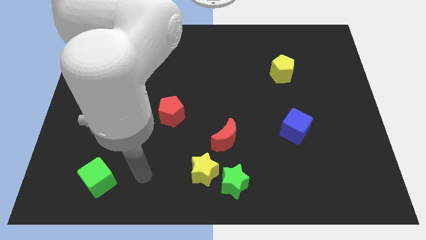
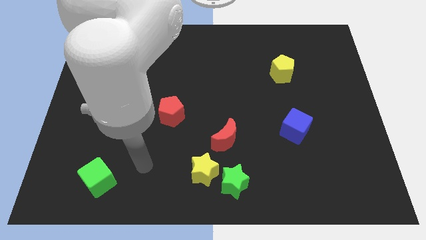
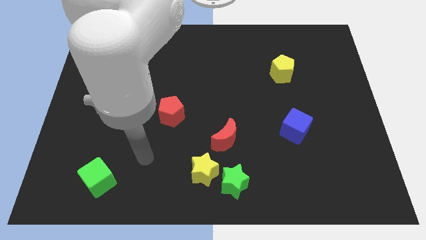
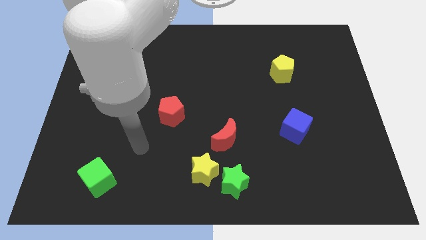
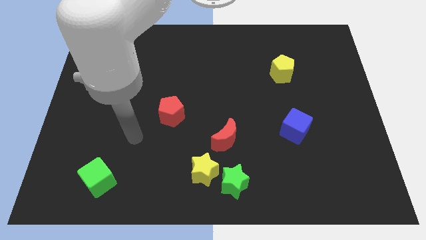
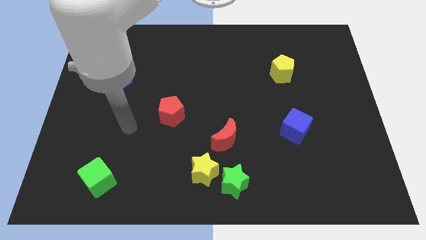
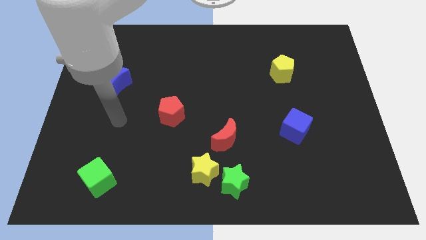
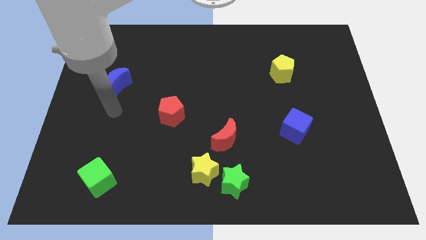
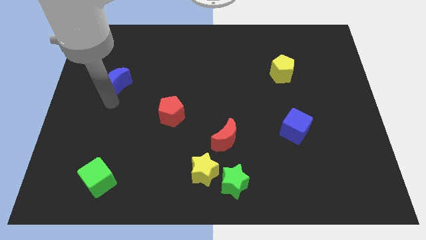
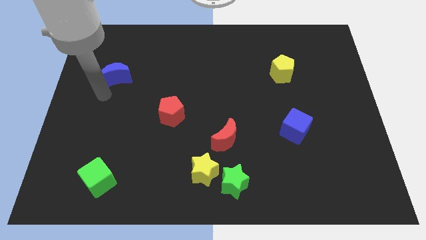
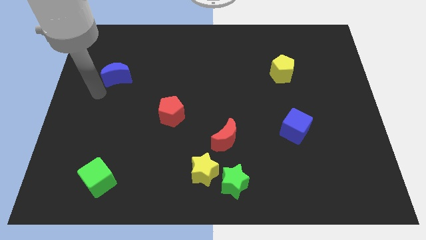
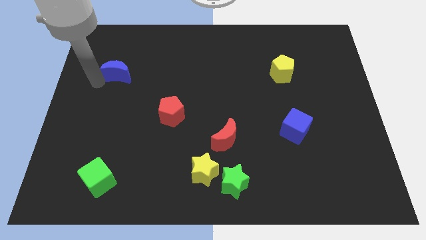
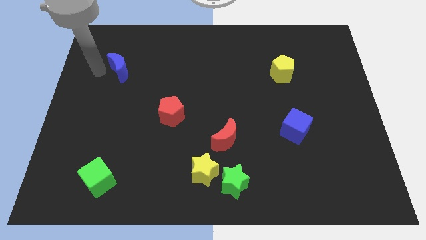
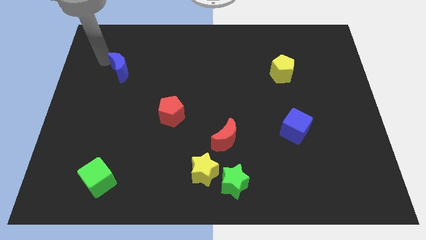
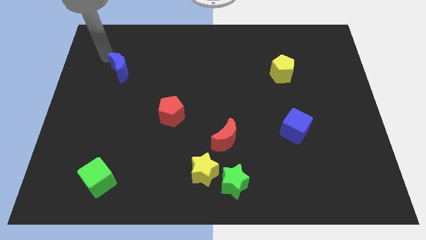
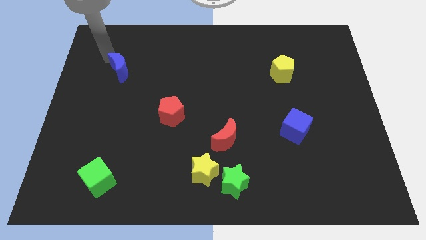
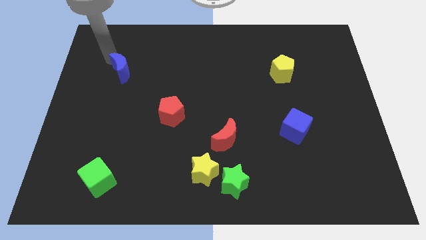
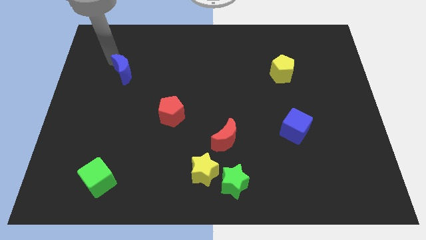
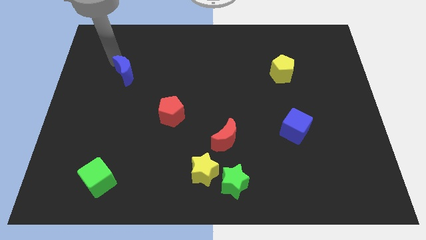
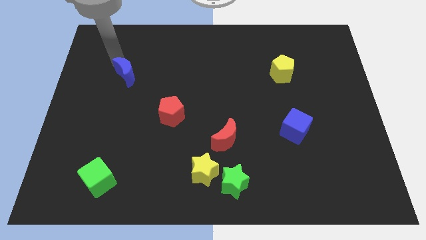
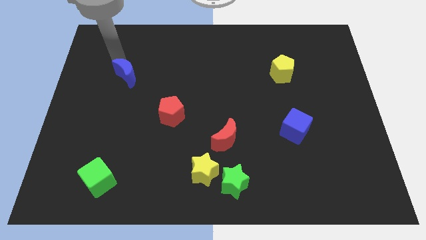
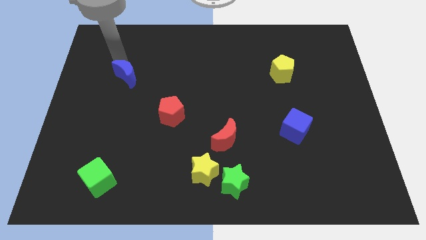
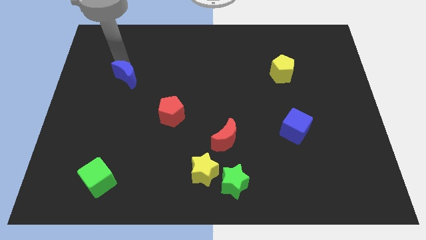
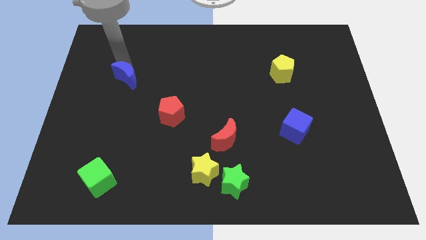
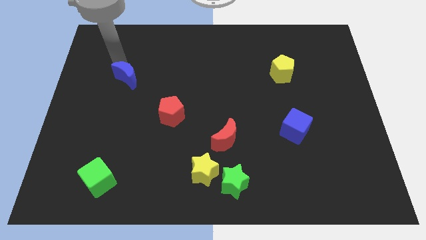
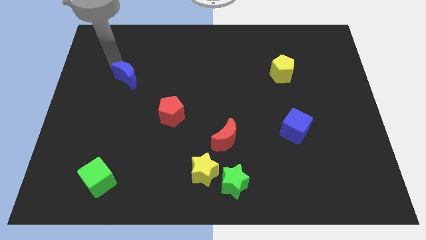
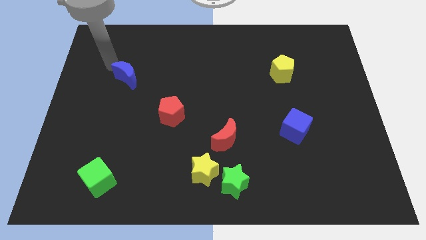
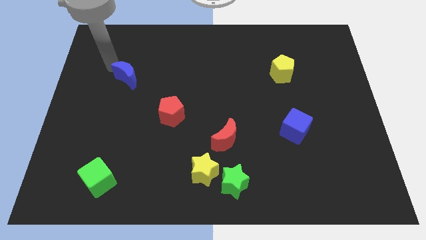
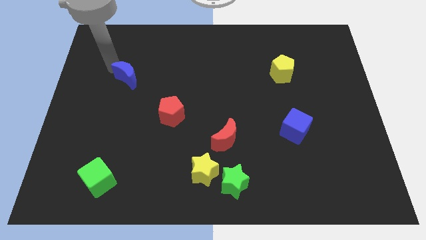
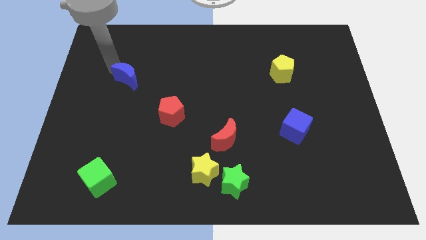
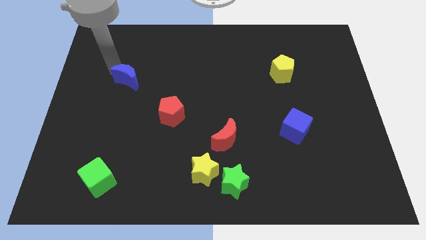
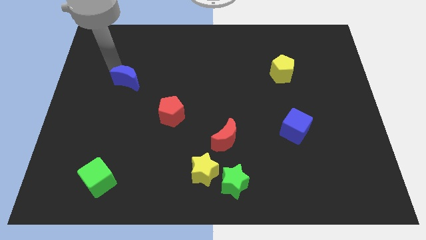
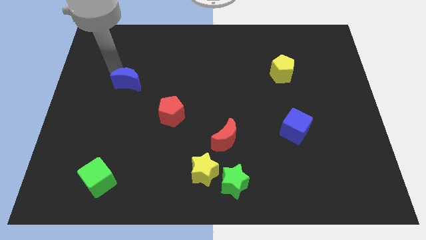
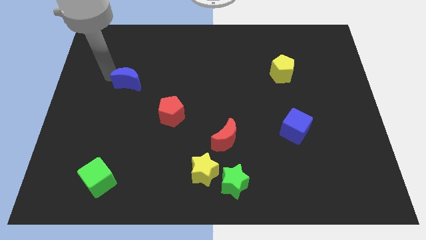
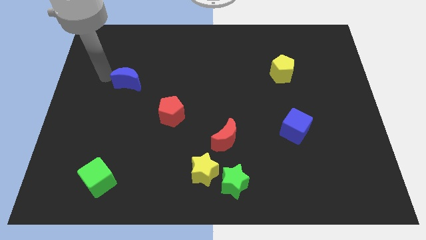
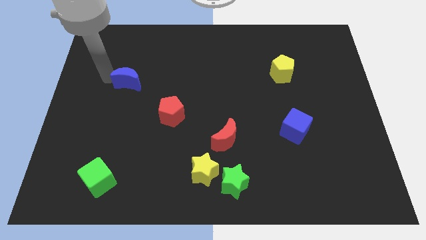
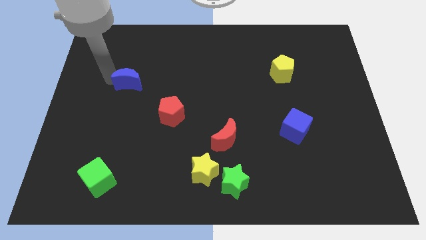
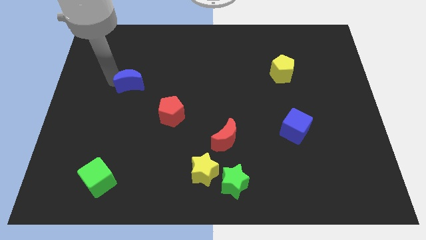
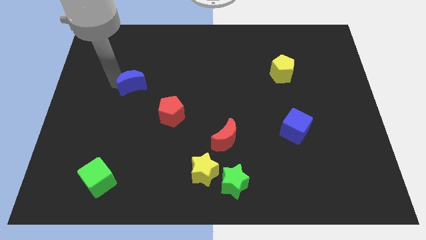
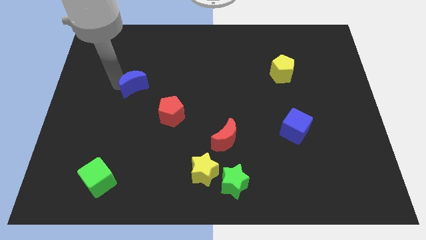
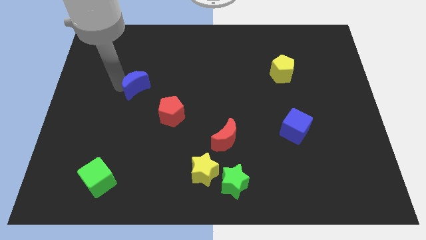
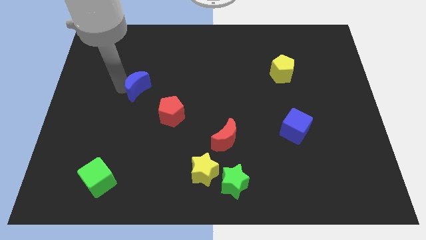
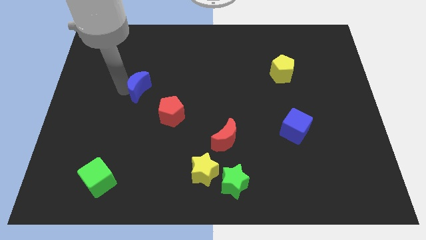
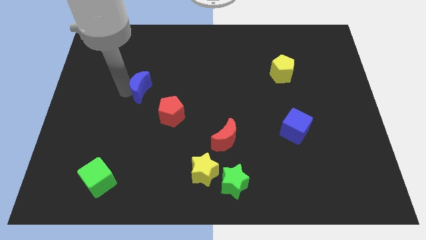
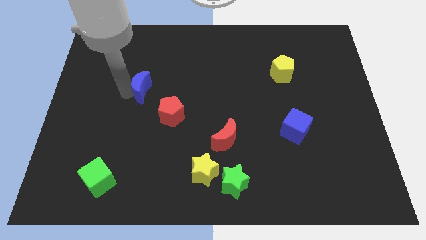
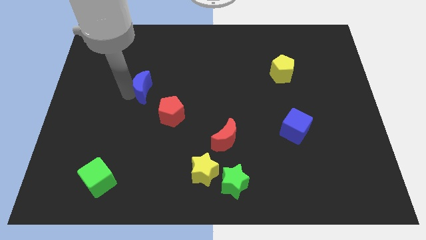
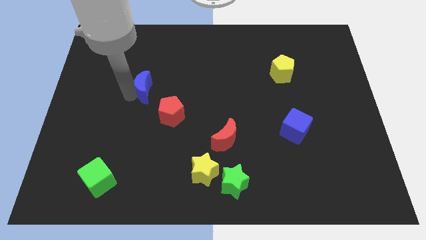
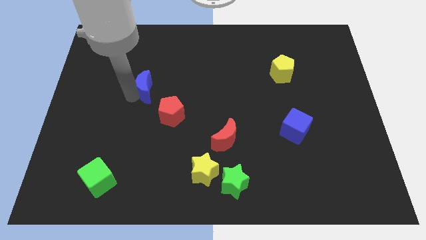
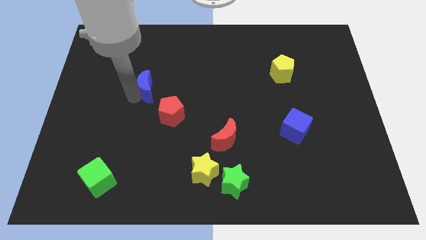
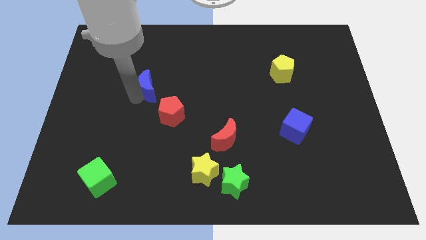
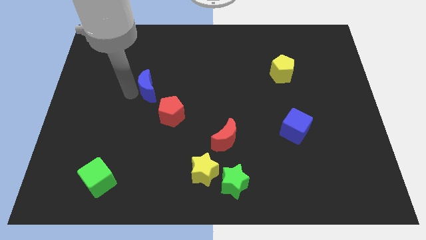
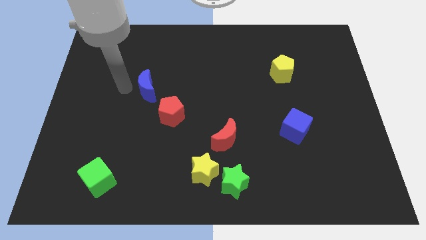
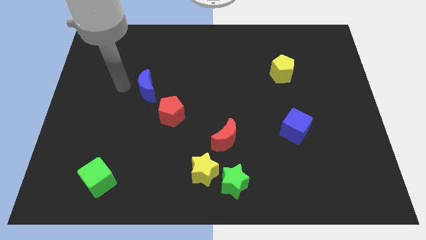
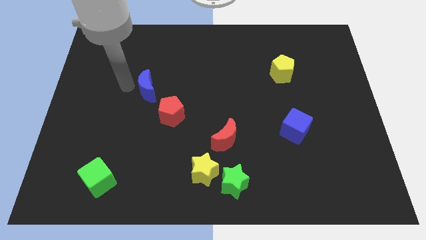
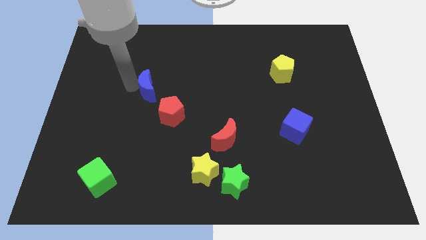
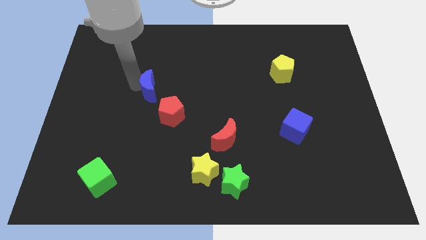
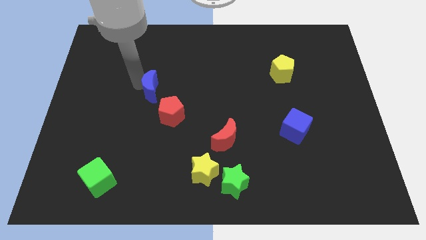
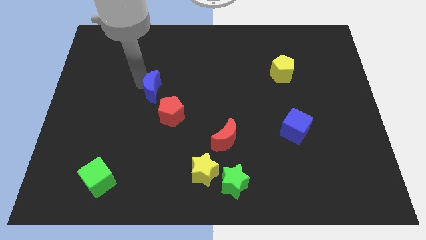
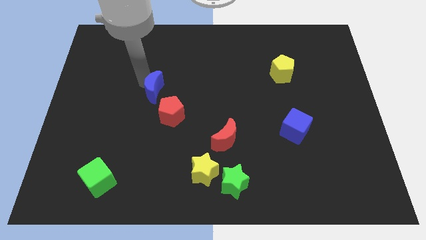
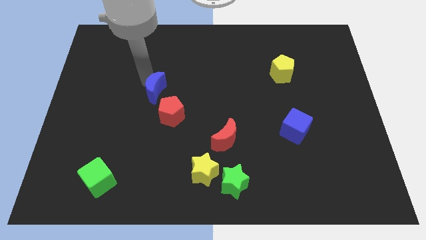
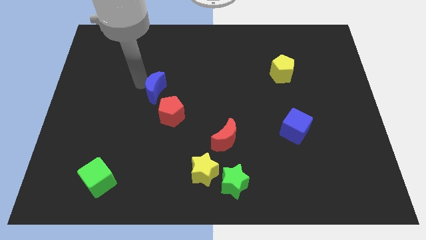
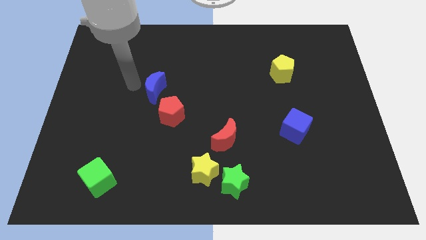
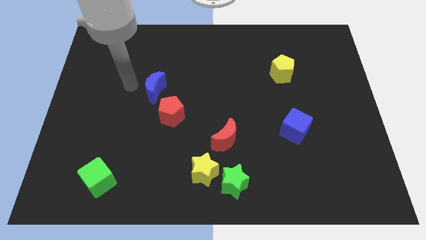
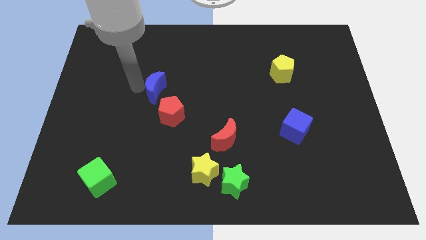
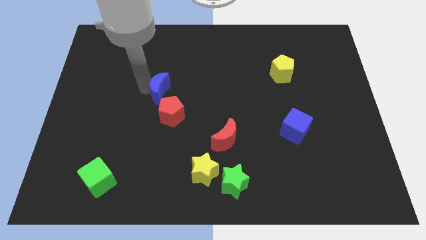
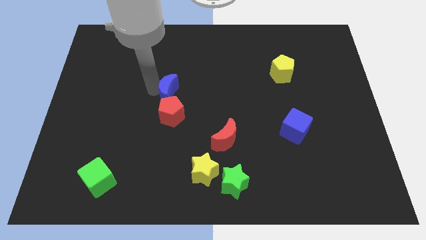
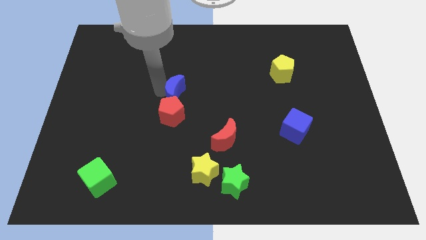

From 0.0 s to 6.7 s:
put the blue moon to the top right side of the red pentagon

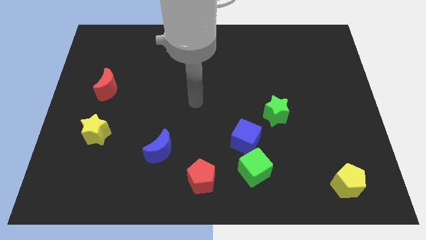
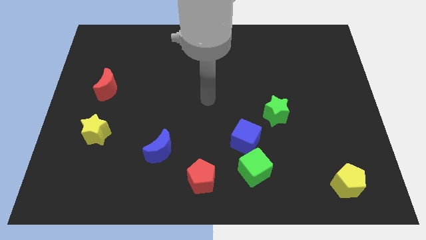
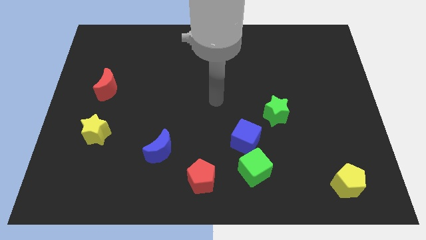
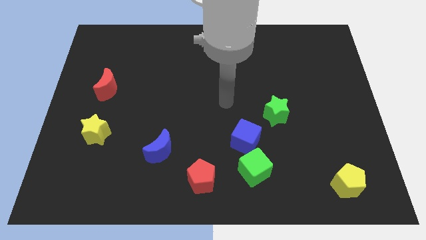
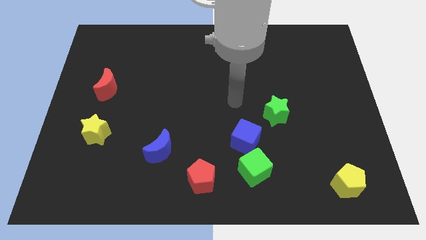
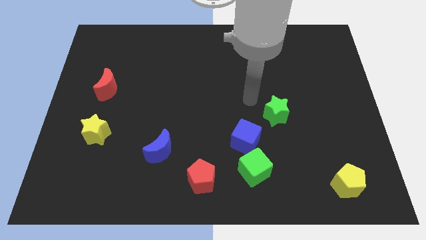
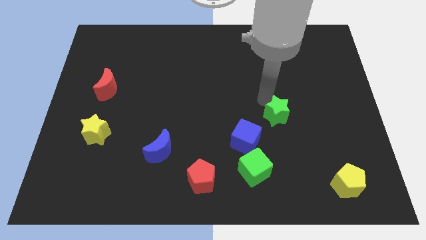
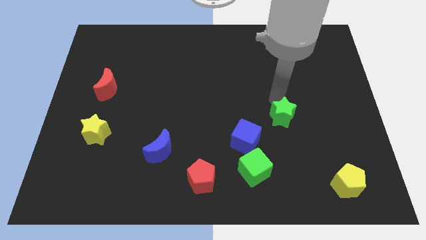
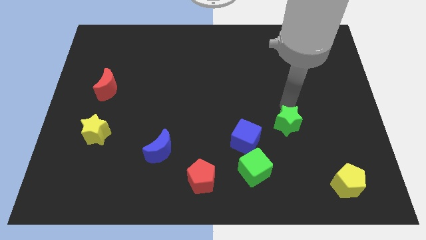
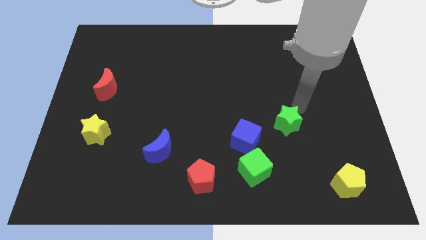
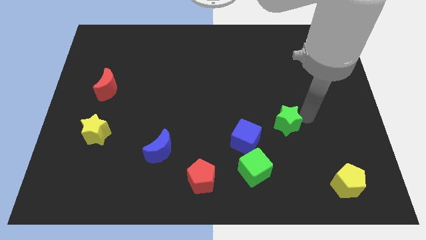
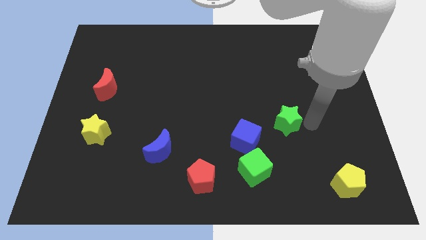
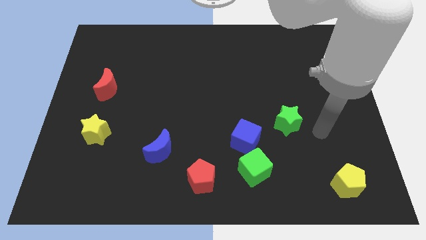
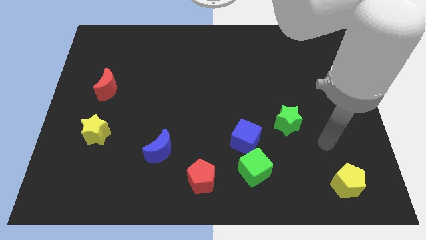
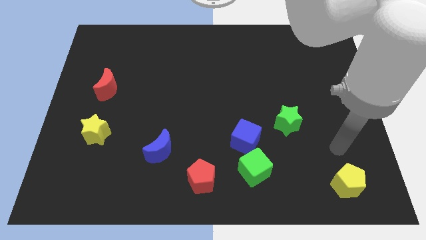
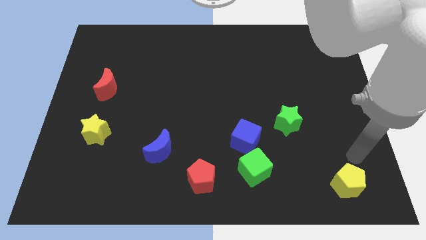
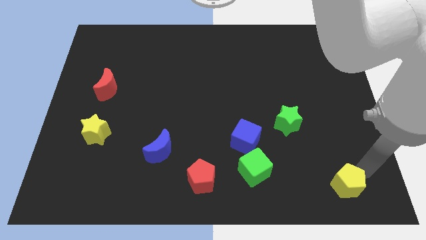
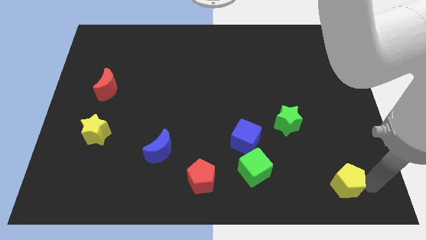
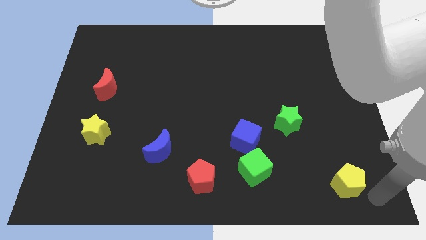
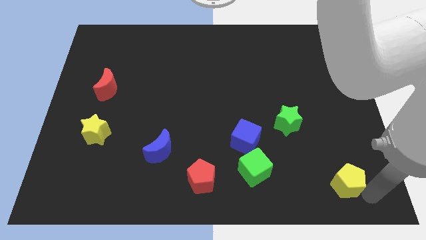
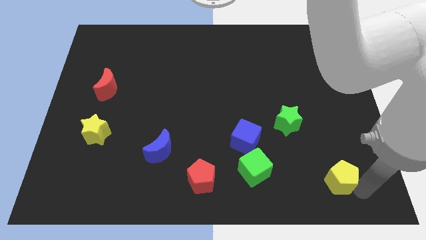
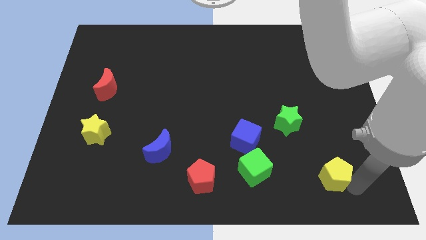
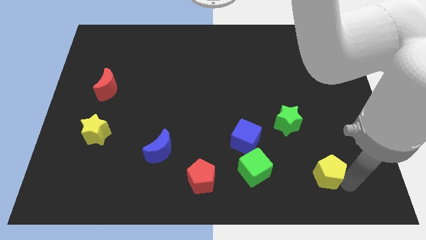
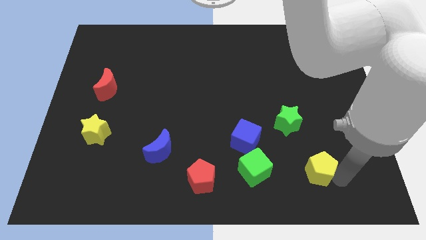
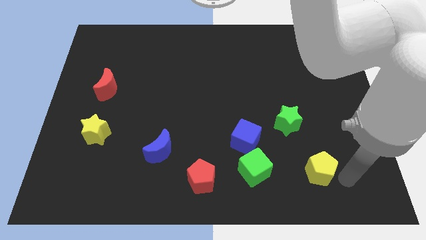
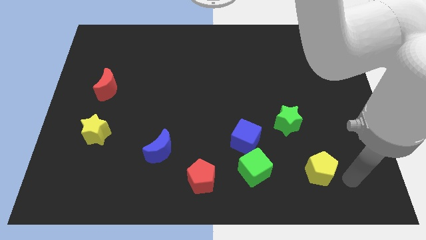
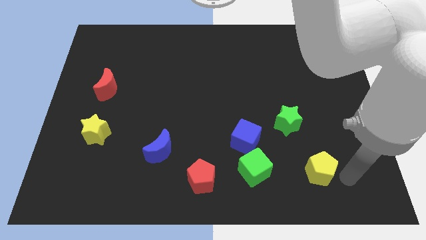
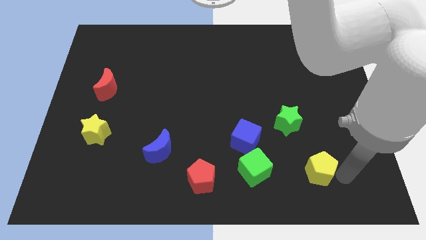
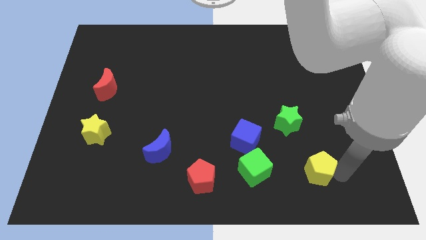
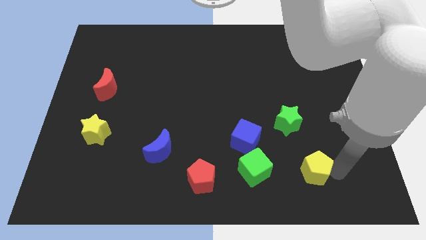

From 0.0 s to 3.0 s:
push the yellow pentagon below the green star
